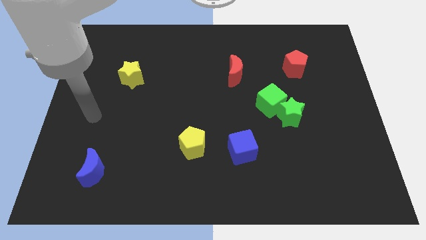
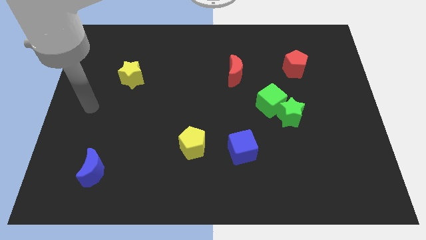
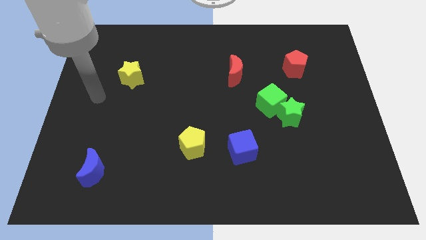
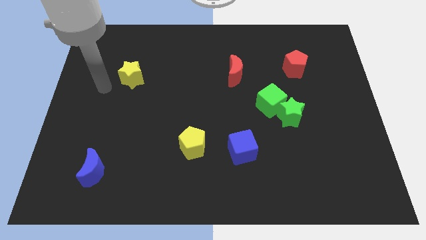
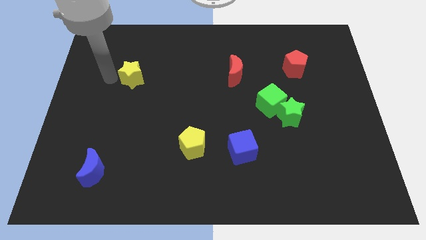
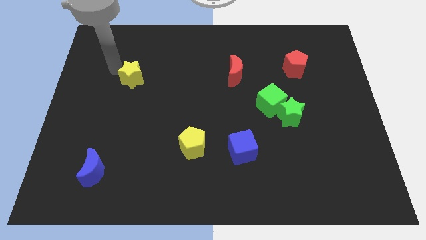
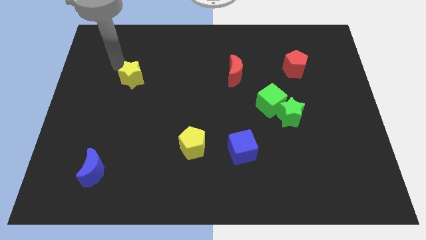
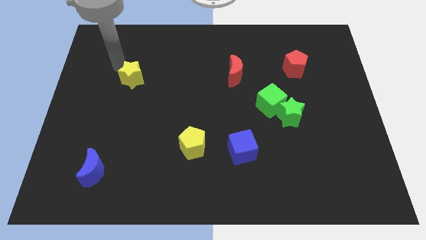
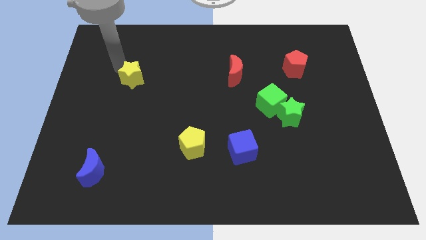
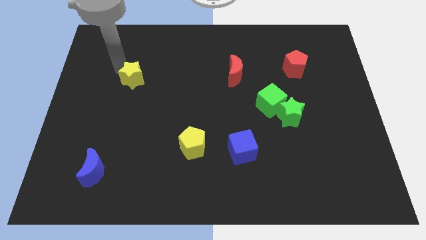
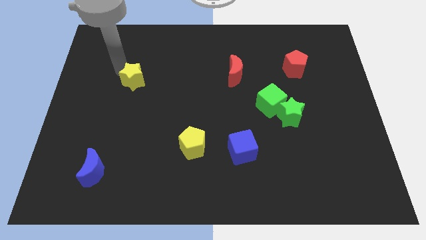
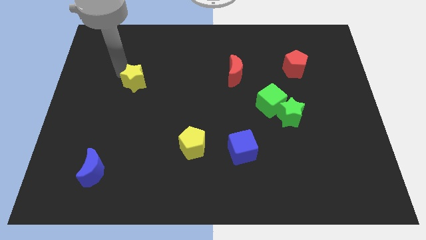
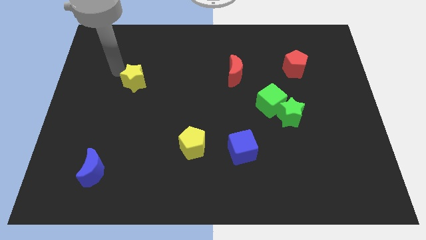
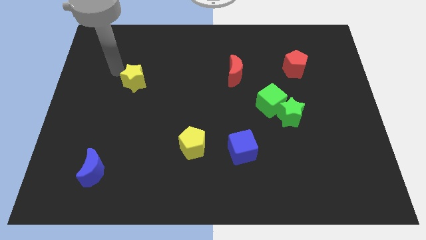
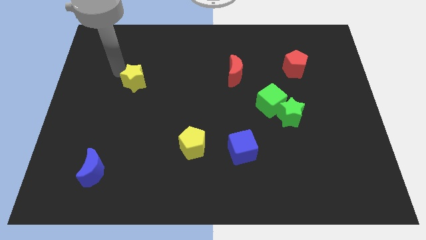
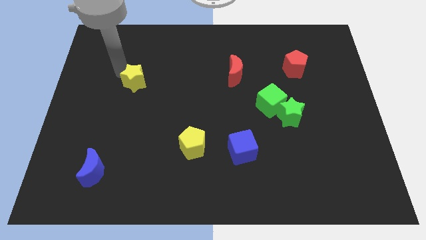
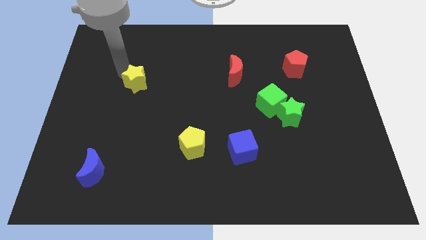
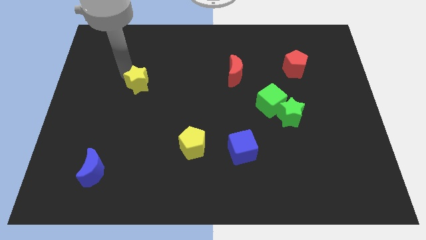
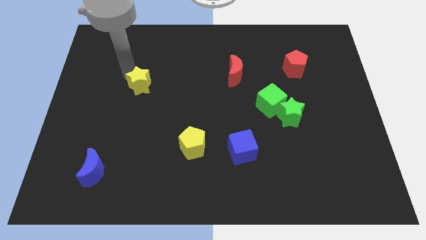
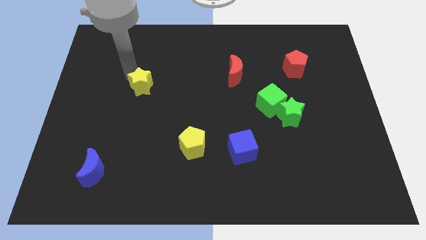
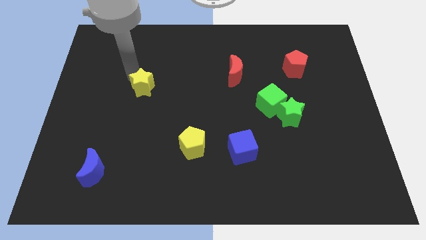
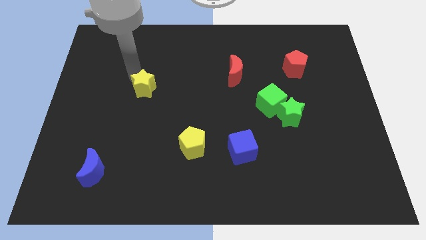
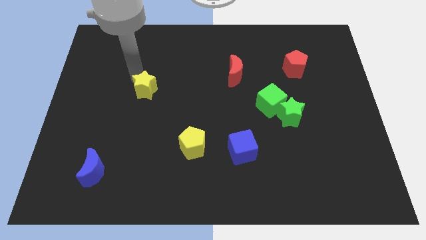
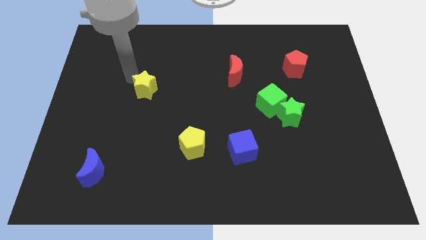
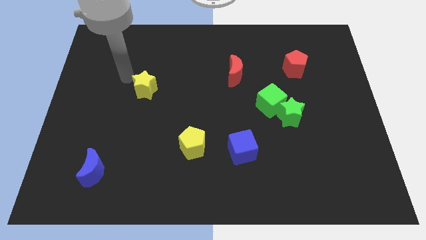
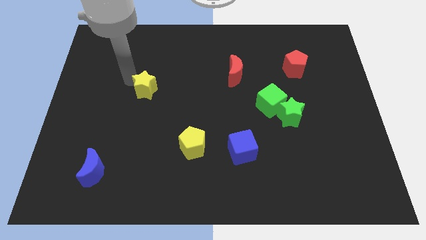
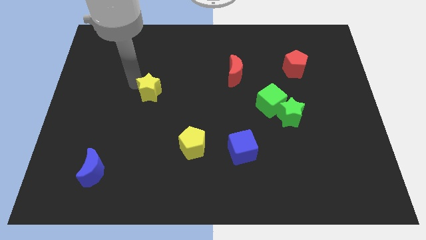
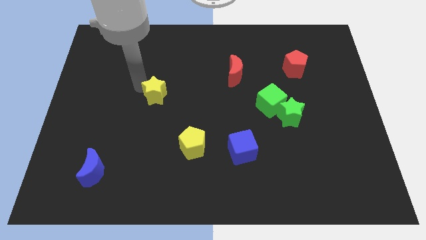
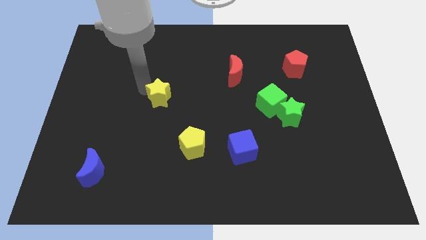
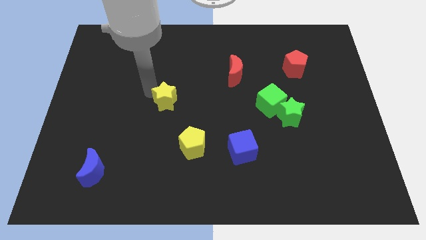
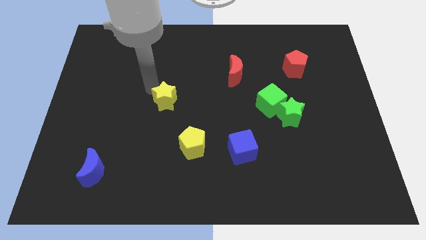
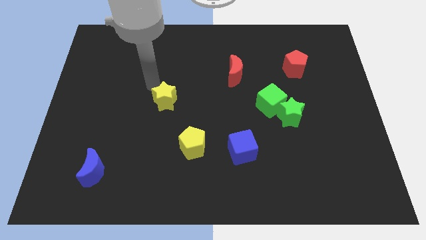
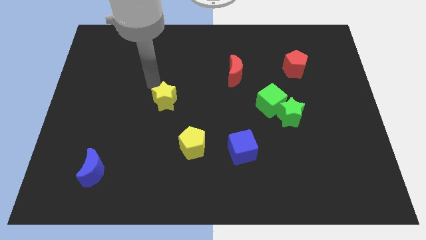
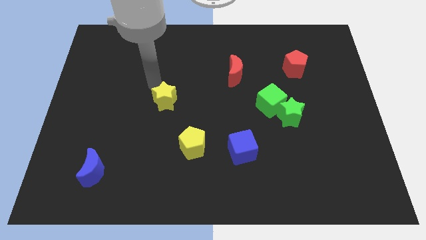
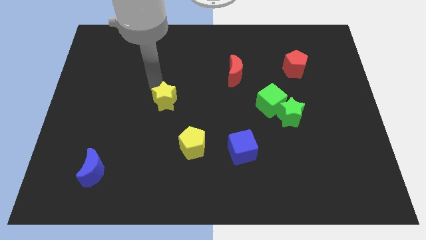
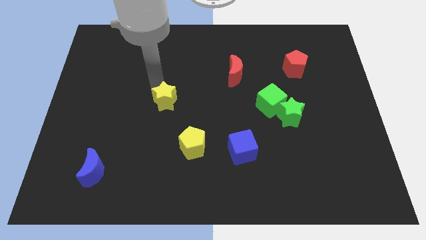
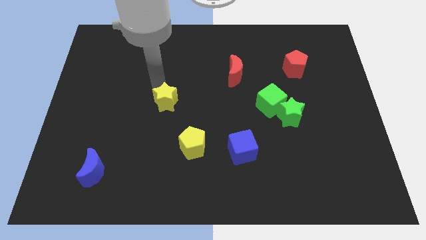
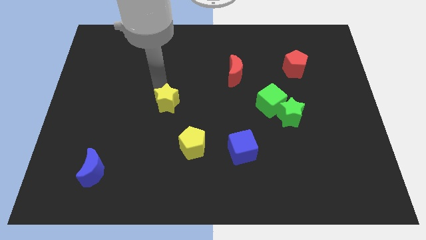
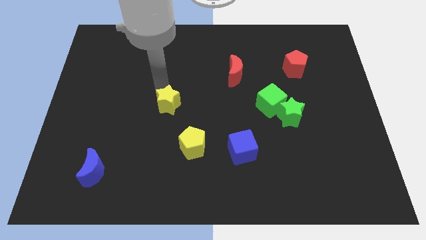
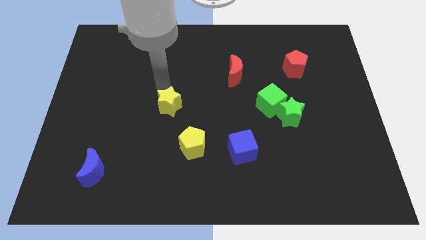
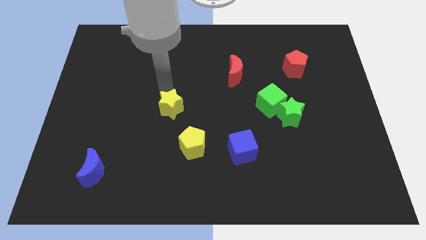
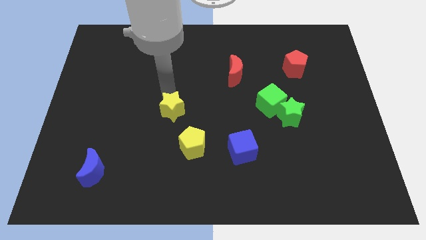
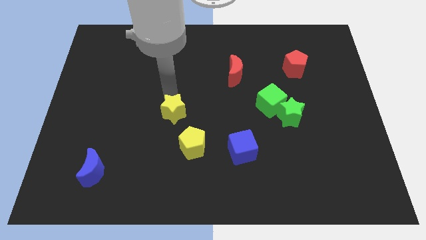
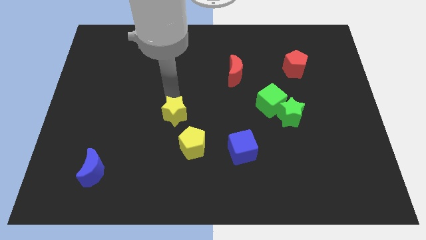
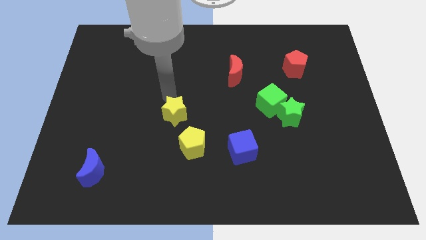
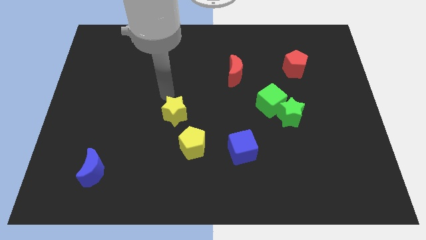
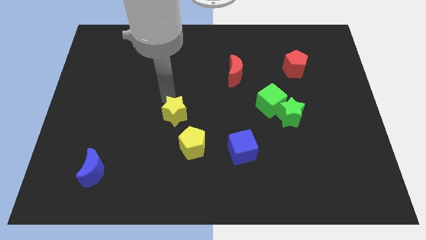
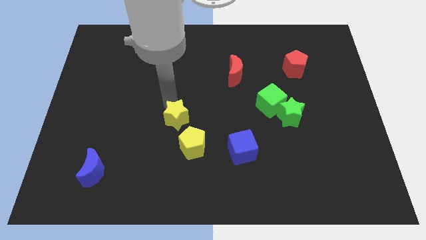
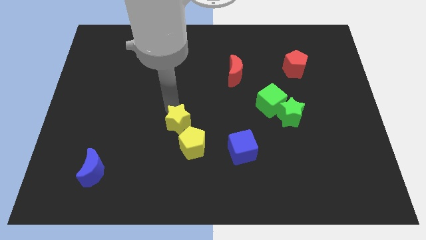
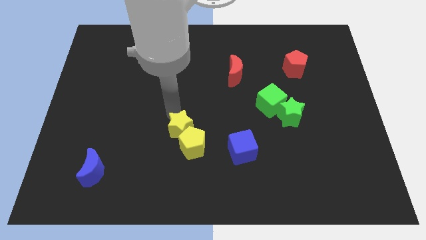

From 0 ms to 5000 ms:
slide the yellow star next to the yellow pentagon

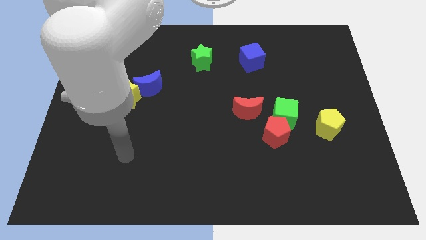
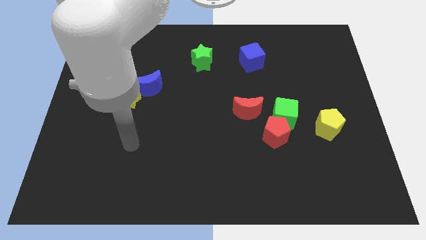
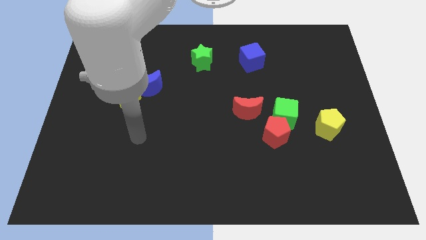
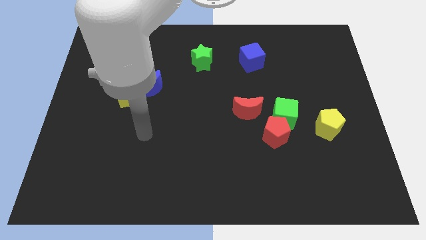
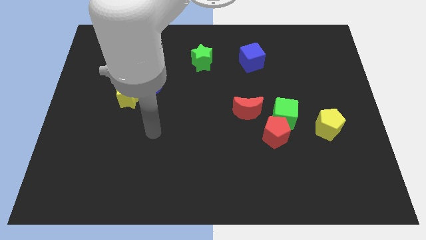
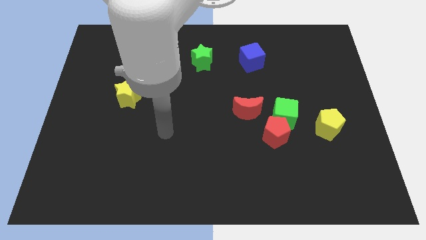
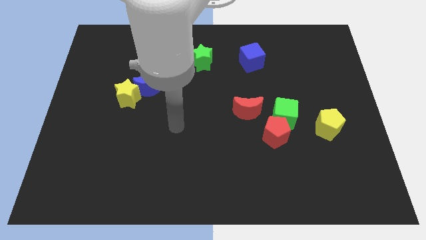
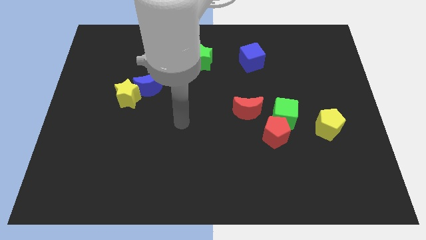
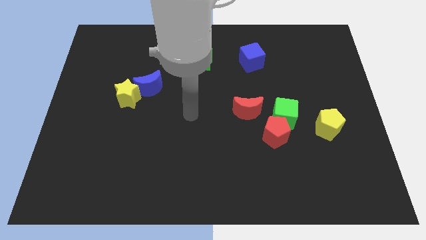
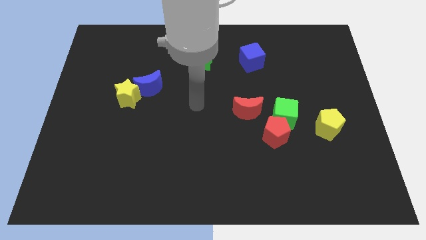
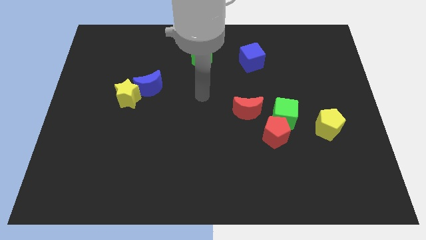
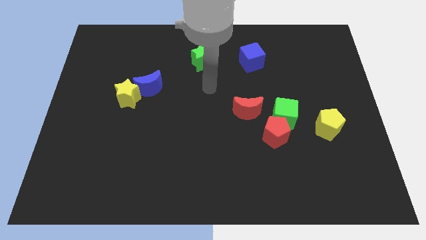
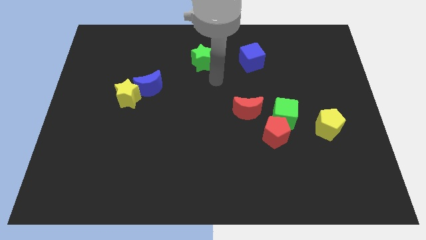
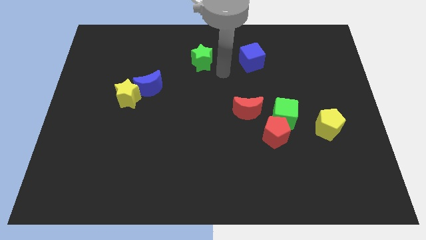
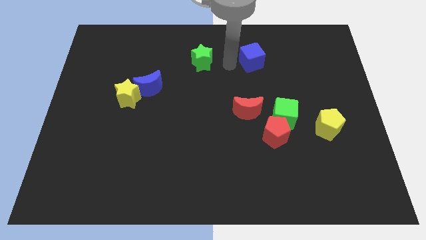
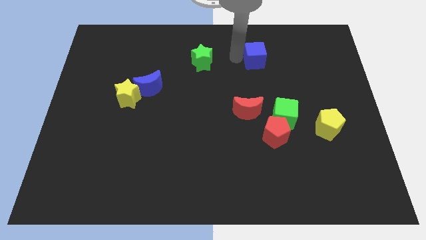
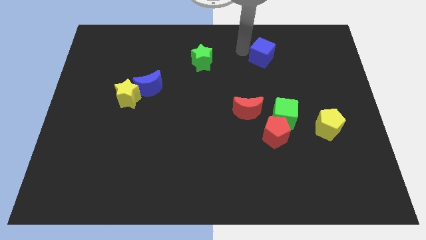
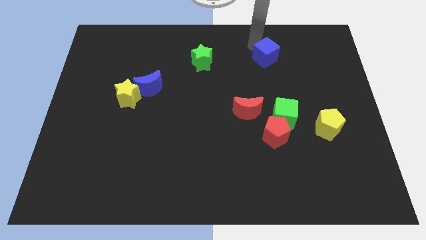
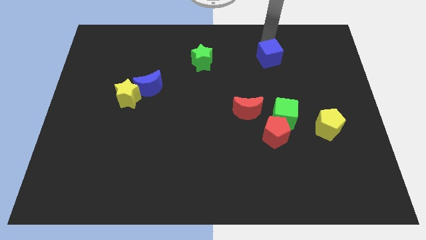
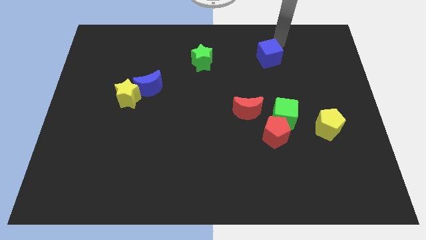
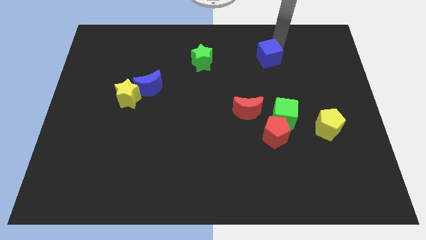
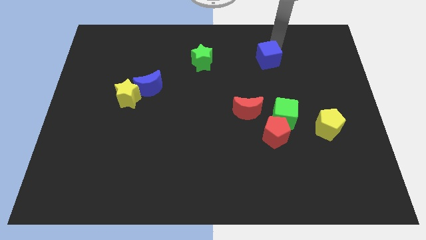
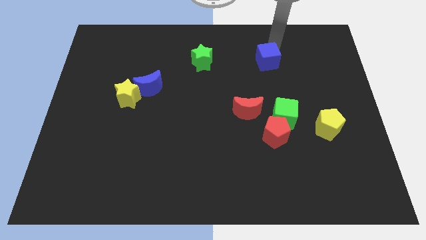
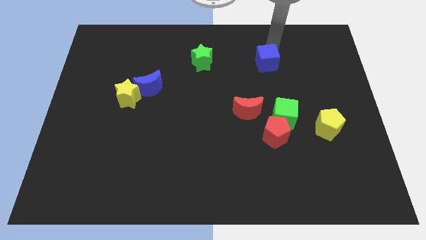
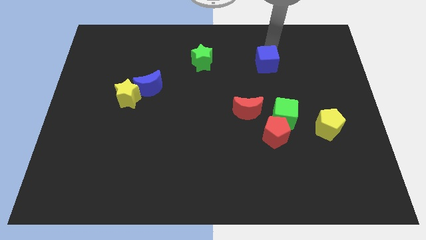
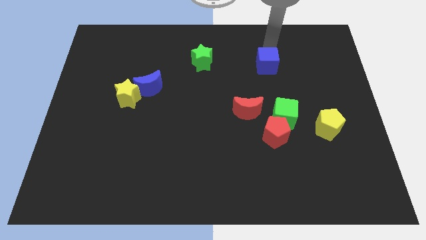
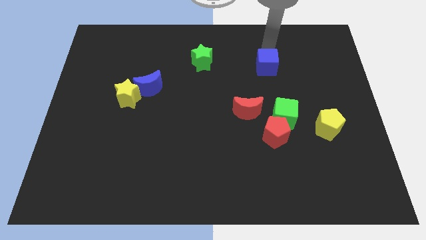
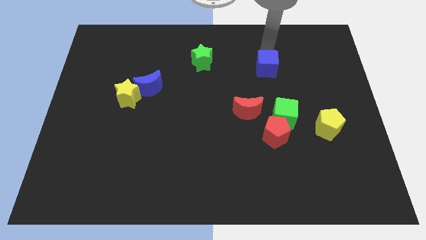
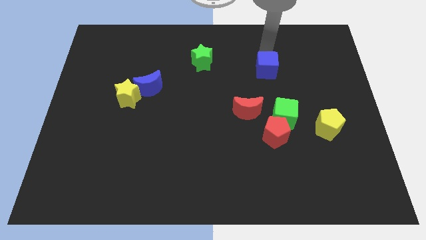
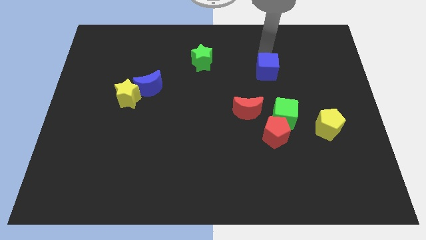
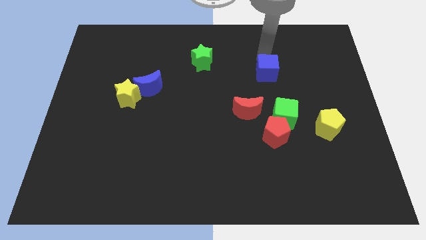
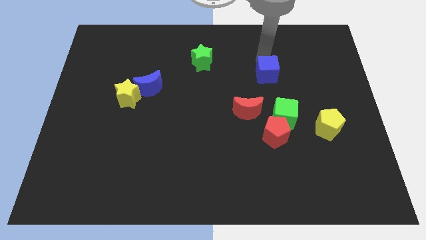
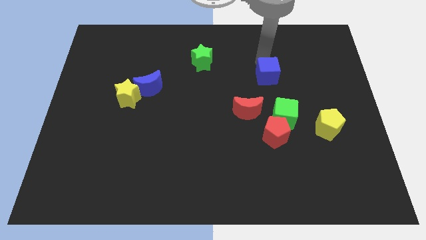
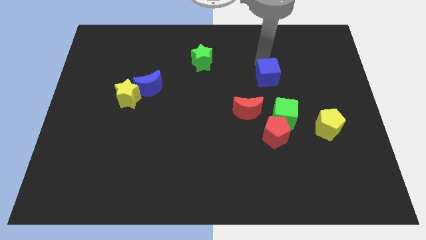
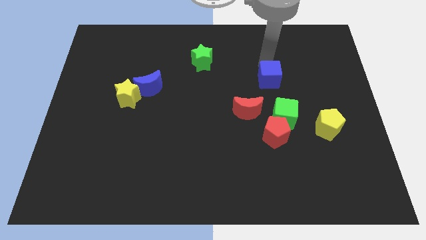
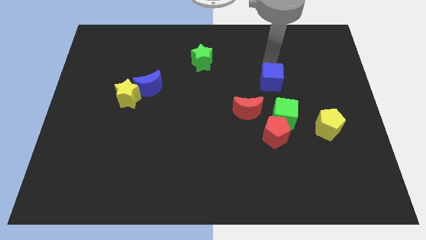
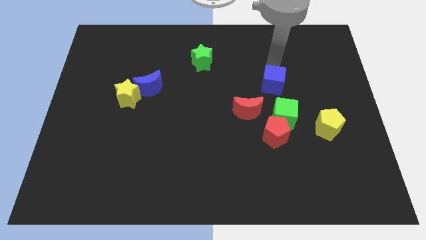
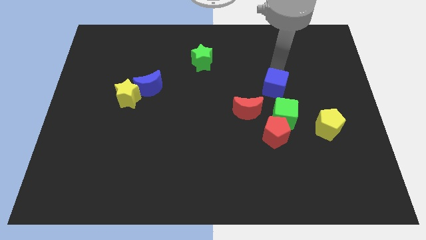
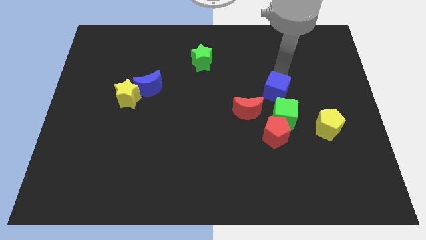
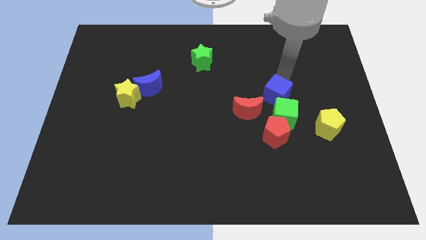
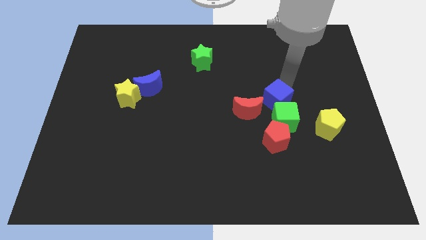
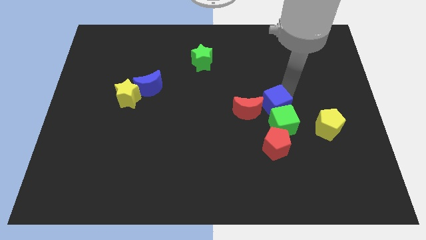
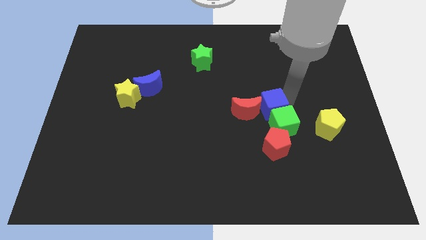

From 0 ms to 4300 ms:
push the blue cube next to the red moon
